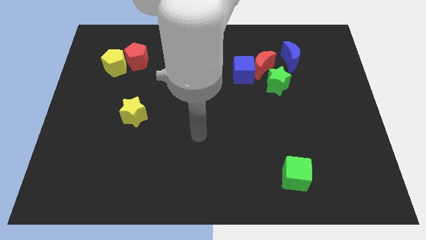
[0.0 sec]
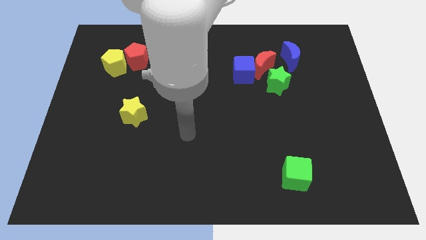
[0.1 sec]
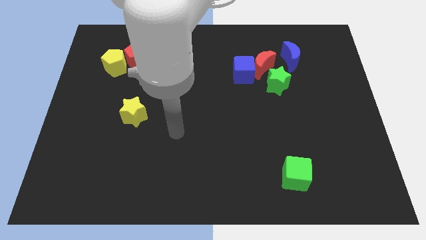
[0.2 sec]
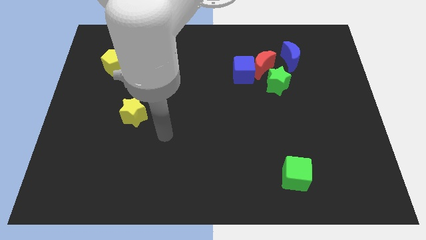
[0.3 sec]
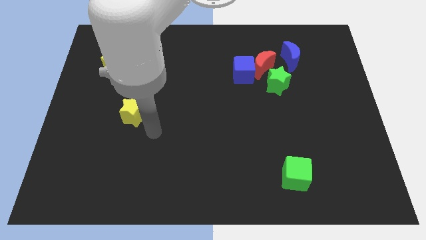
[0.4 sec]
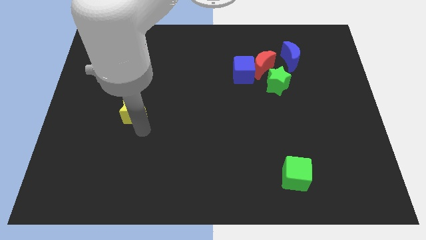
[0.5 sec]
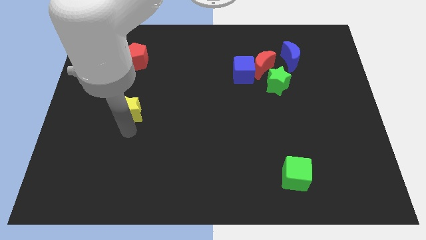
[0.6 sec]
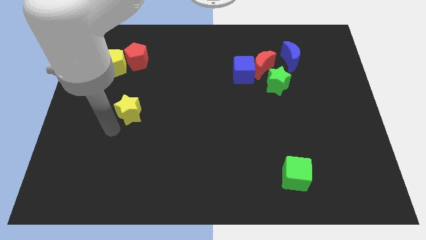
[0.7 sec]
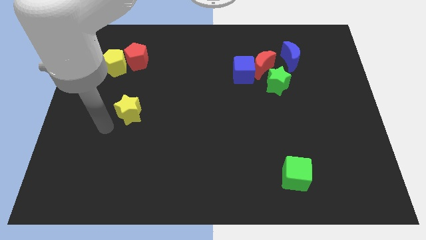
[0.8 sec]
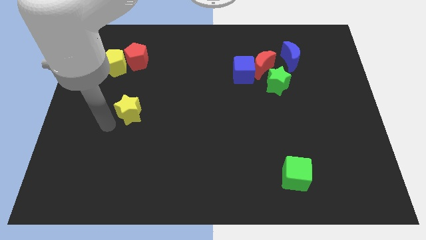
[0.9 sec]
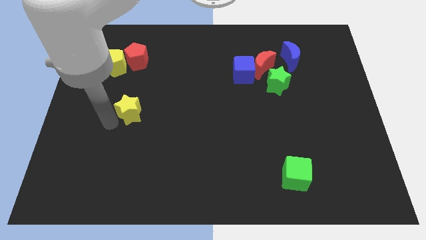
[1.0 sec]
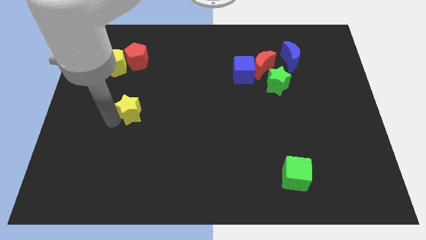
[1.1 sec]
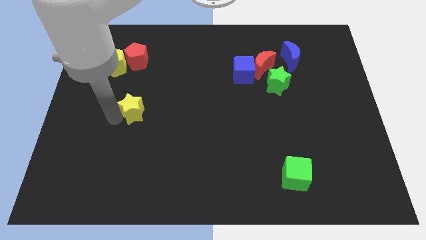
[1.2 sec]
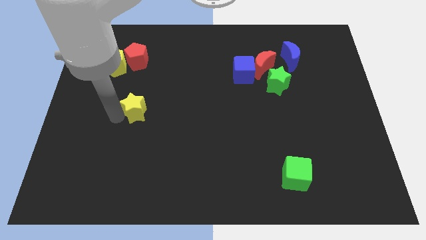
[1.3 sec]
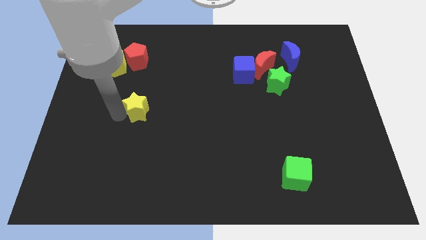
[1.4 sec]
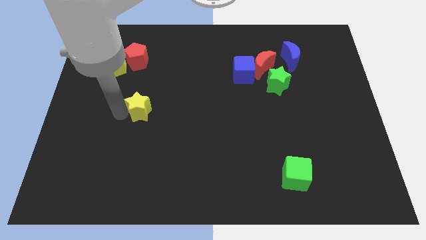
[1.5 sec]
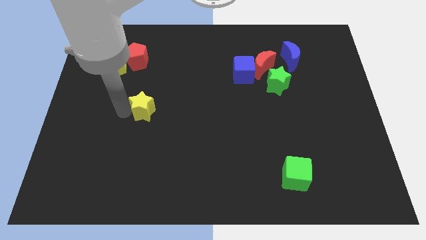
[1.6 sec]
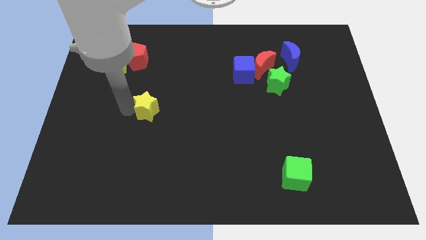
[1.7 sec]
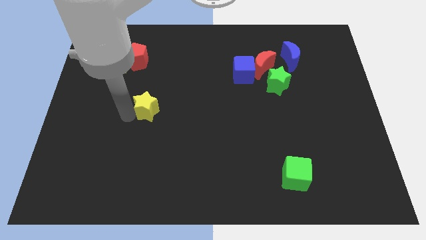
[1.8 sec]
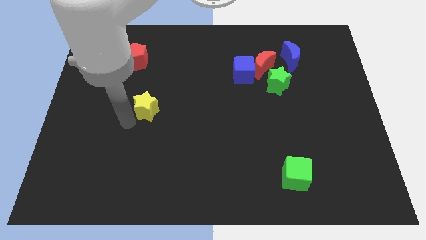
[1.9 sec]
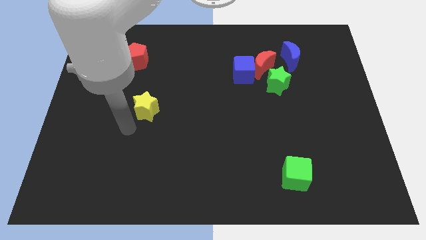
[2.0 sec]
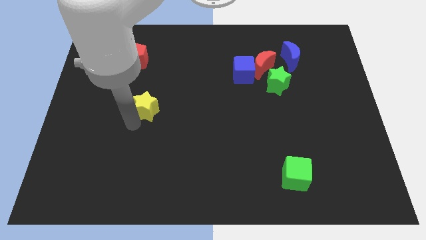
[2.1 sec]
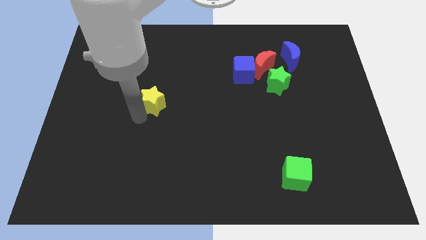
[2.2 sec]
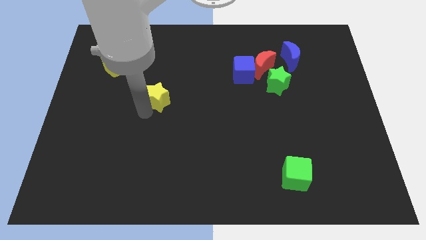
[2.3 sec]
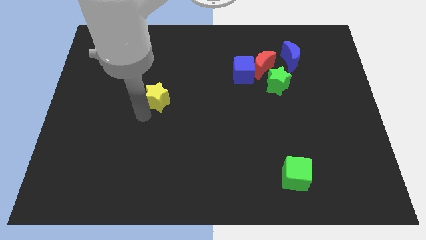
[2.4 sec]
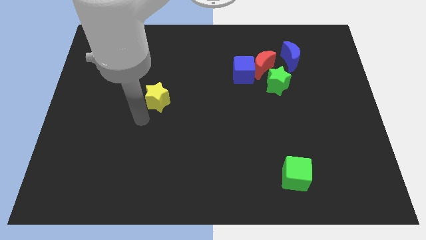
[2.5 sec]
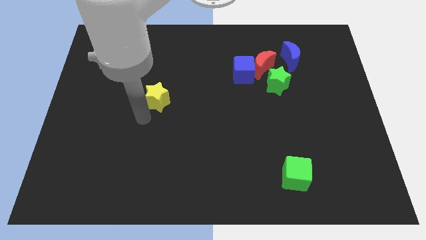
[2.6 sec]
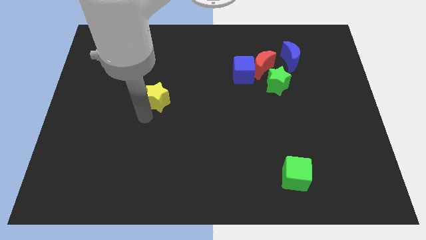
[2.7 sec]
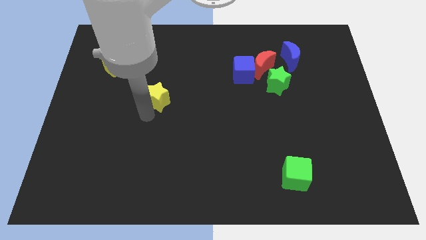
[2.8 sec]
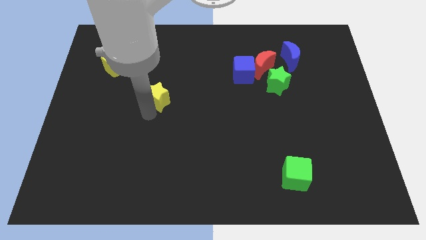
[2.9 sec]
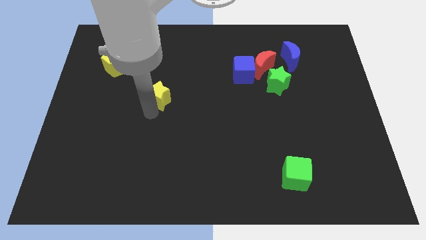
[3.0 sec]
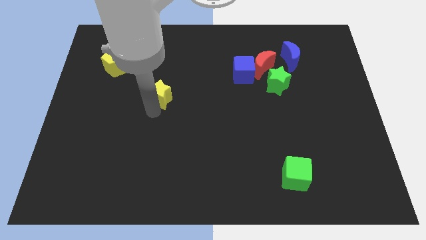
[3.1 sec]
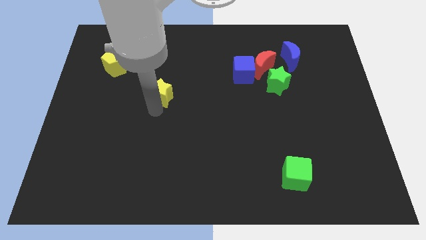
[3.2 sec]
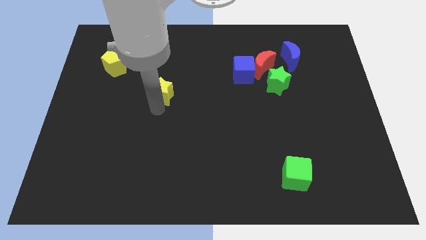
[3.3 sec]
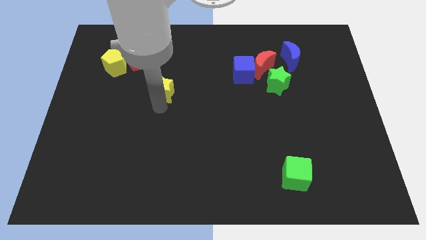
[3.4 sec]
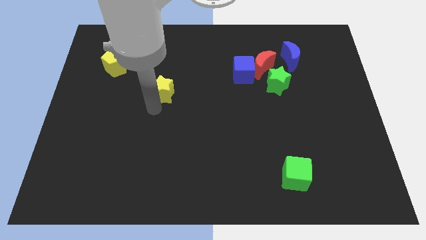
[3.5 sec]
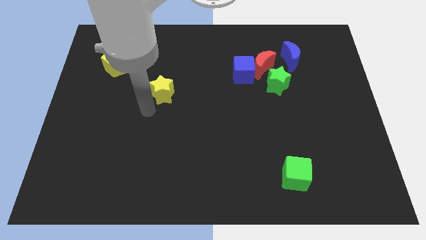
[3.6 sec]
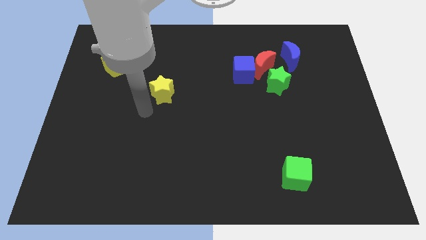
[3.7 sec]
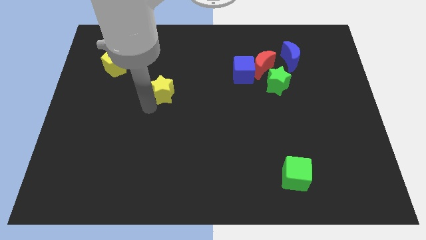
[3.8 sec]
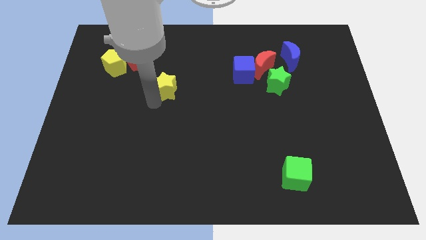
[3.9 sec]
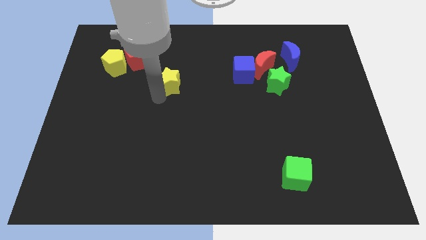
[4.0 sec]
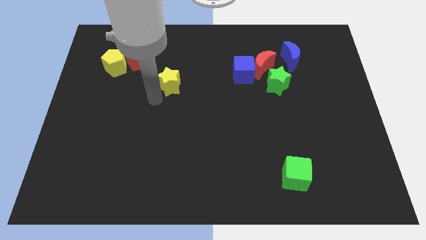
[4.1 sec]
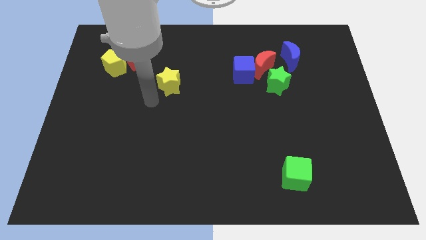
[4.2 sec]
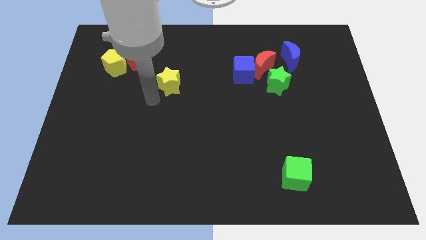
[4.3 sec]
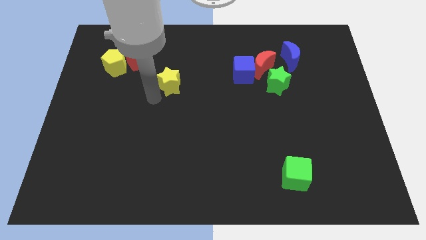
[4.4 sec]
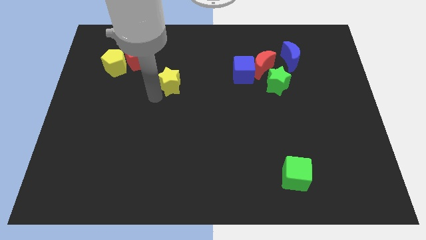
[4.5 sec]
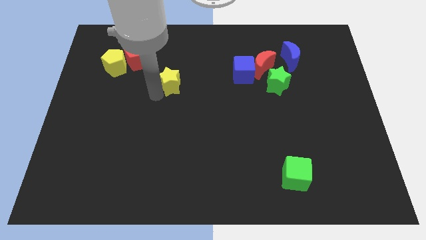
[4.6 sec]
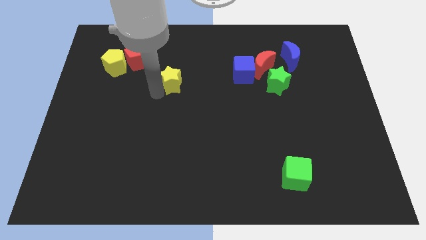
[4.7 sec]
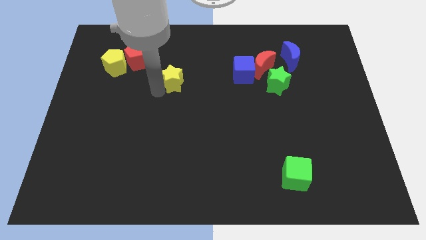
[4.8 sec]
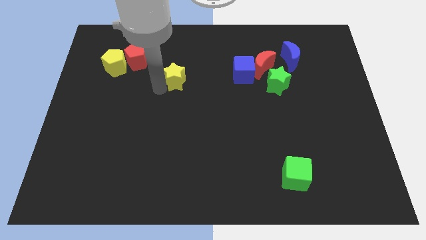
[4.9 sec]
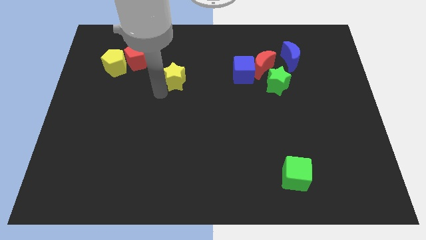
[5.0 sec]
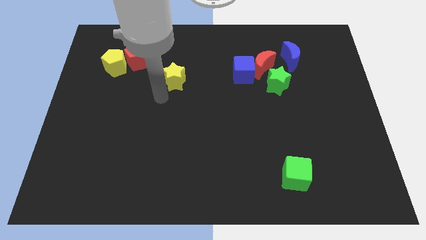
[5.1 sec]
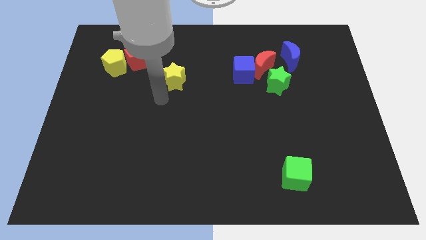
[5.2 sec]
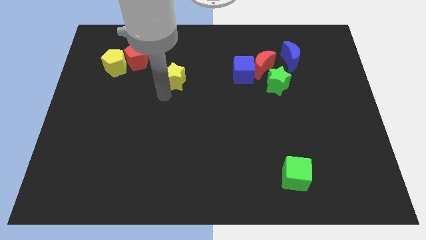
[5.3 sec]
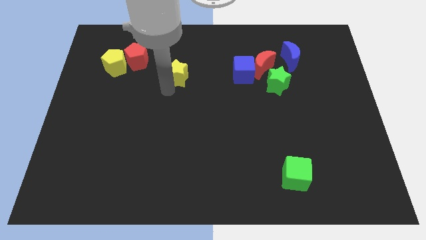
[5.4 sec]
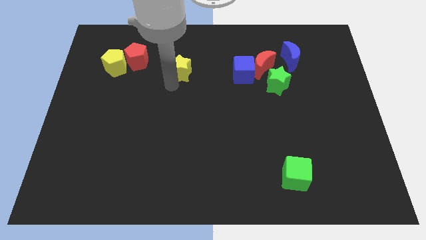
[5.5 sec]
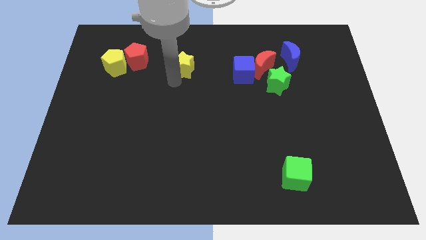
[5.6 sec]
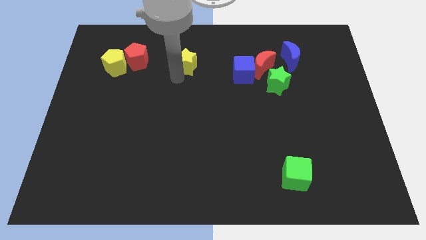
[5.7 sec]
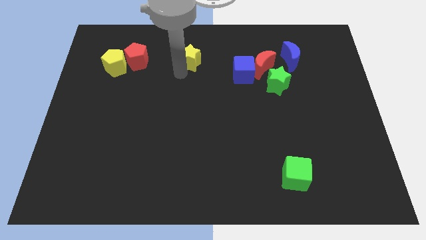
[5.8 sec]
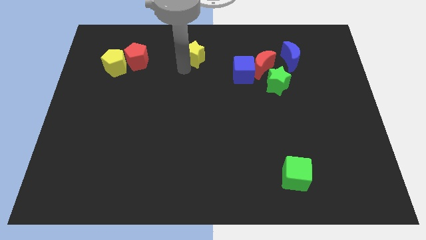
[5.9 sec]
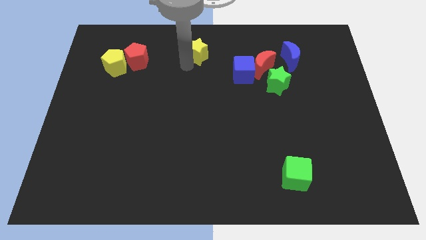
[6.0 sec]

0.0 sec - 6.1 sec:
put the yellow star to the top
